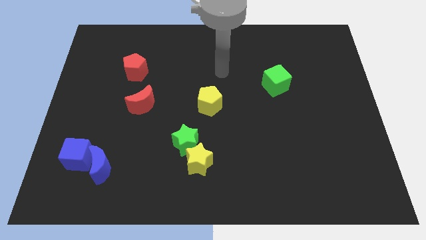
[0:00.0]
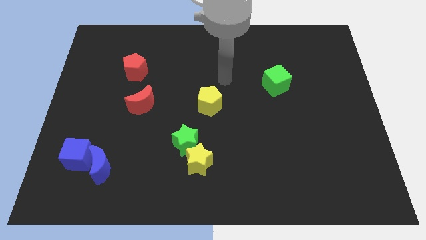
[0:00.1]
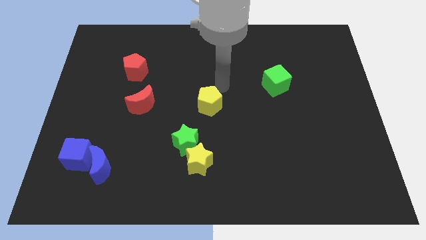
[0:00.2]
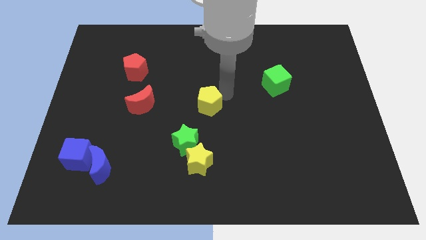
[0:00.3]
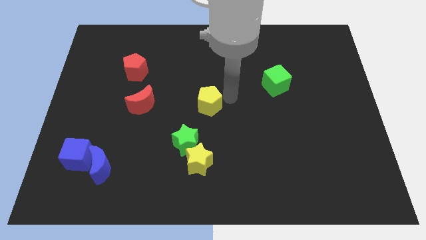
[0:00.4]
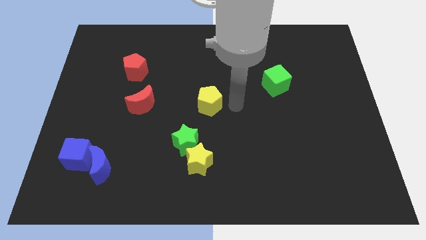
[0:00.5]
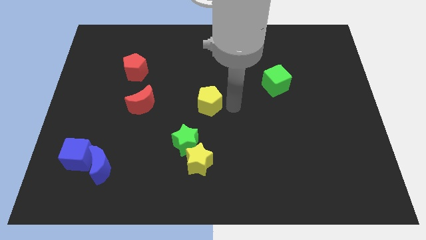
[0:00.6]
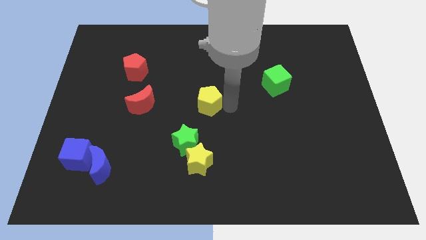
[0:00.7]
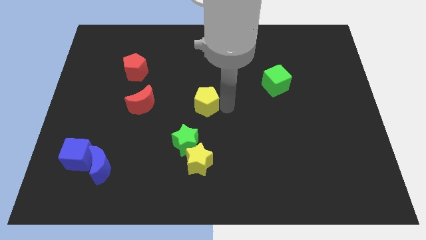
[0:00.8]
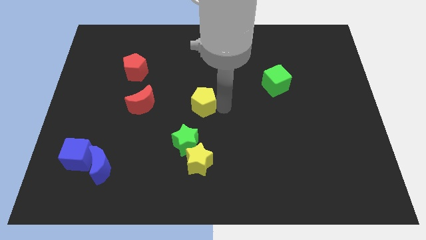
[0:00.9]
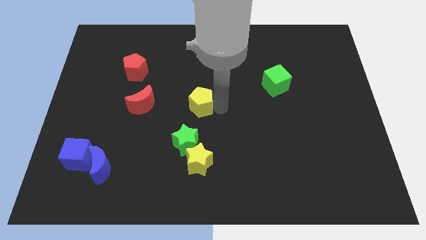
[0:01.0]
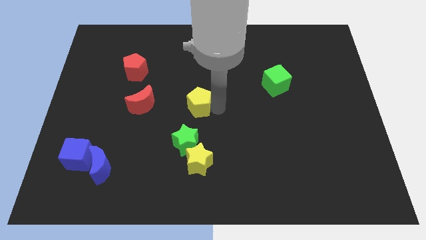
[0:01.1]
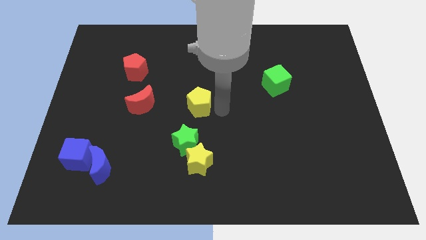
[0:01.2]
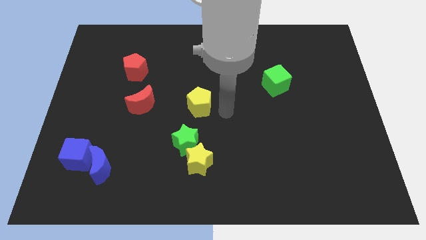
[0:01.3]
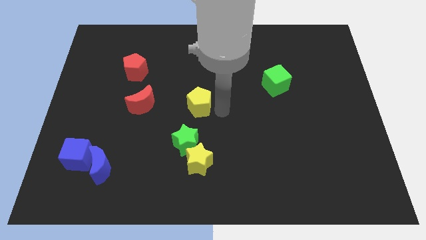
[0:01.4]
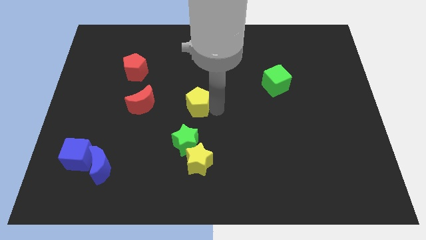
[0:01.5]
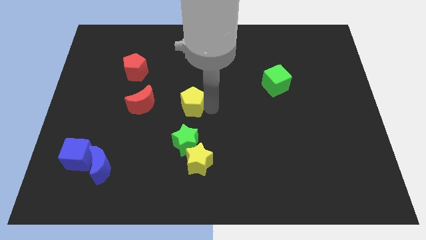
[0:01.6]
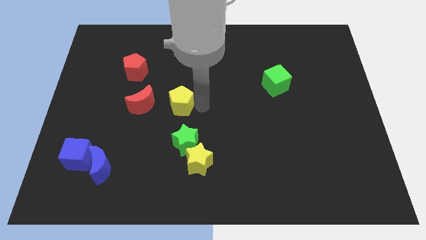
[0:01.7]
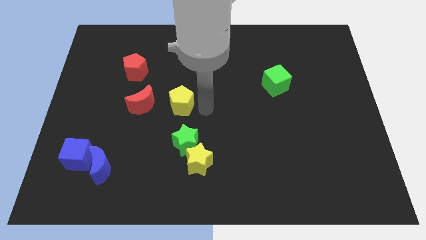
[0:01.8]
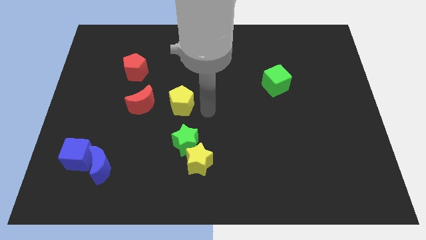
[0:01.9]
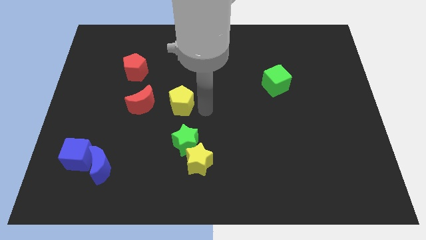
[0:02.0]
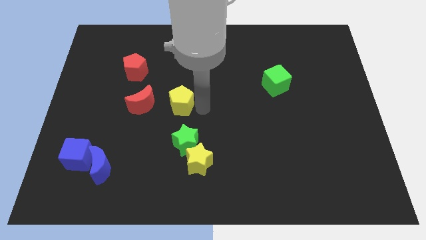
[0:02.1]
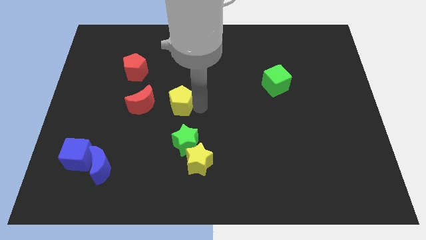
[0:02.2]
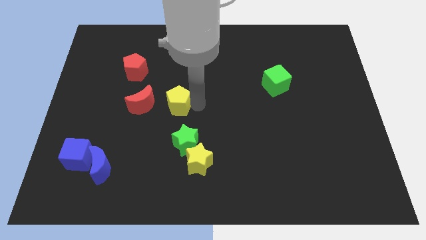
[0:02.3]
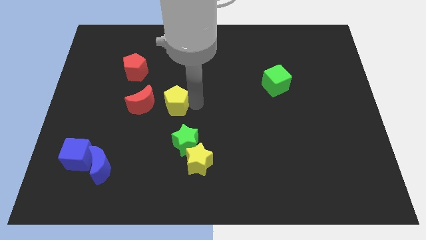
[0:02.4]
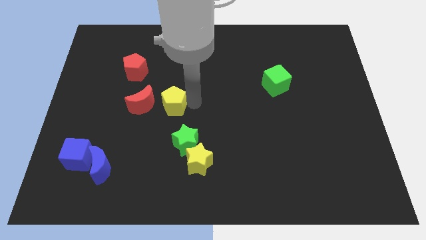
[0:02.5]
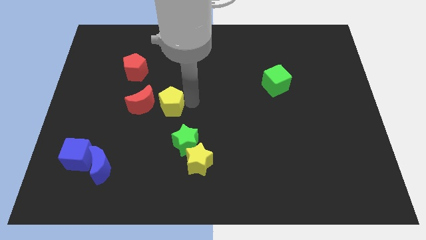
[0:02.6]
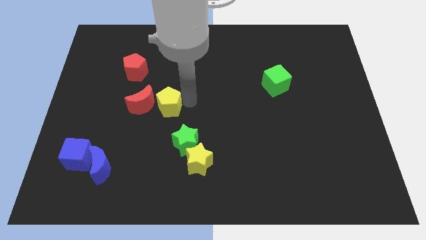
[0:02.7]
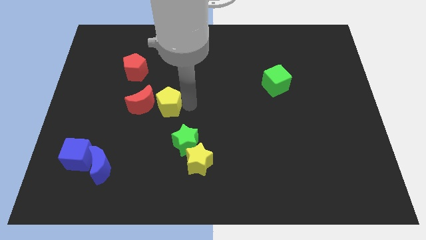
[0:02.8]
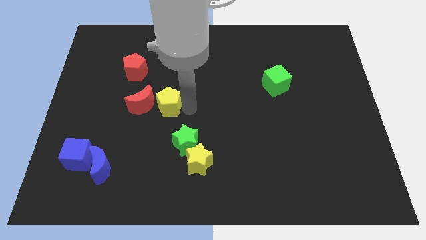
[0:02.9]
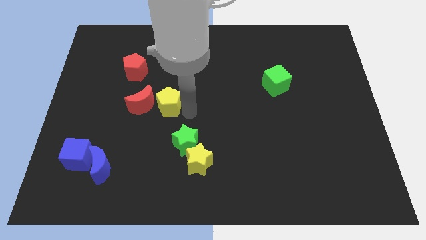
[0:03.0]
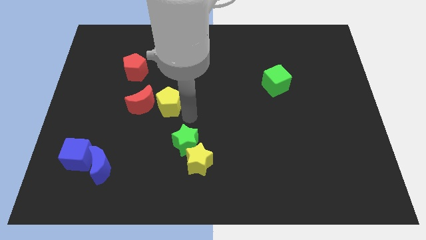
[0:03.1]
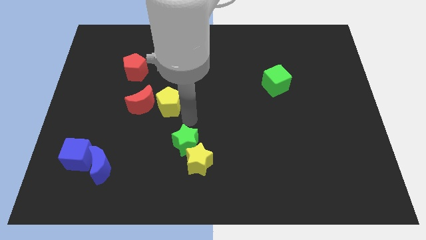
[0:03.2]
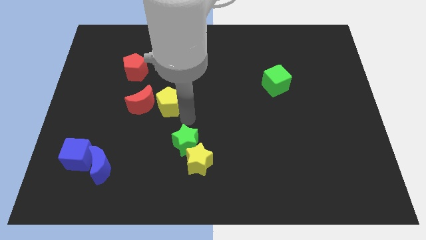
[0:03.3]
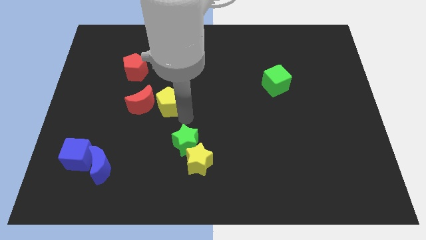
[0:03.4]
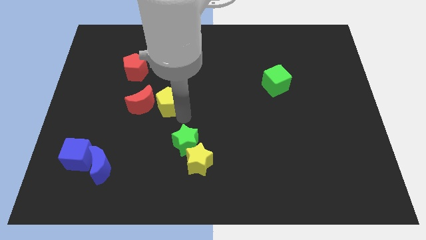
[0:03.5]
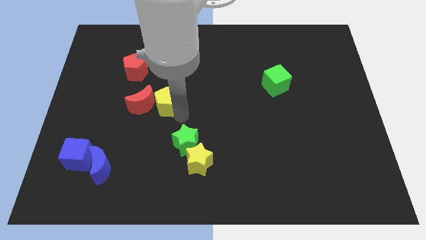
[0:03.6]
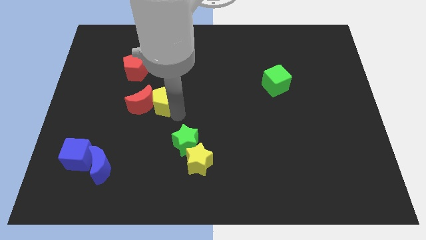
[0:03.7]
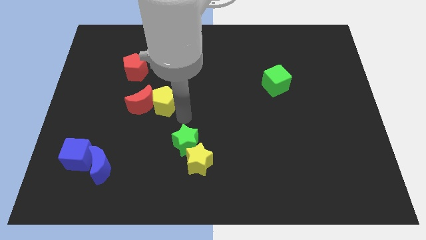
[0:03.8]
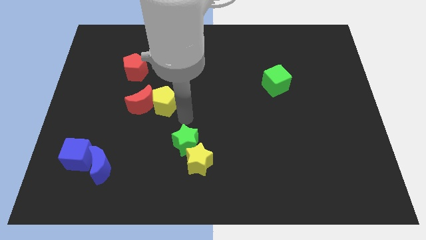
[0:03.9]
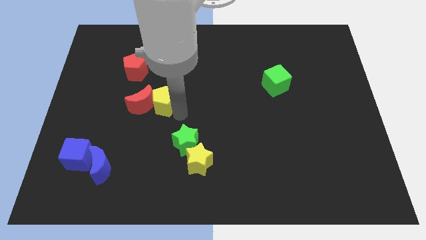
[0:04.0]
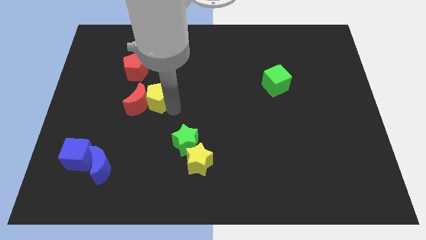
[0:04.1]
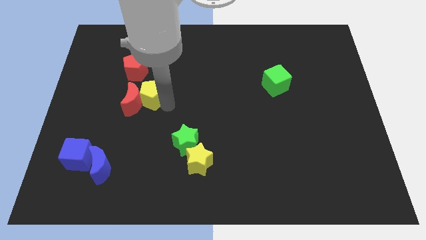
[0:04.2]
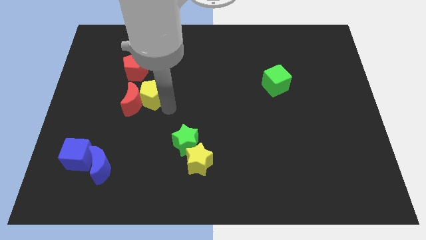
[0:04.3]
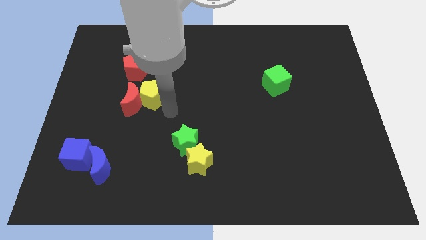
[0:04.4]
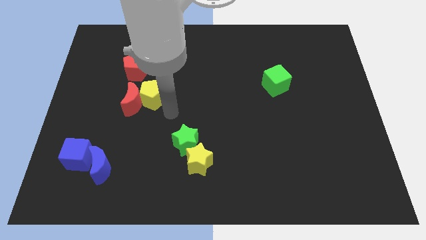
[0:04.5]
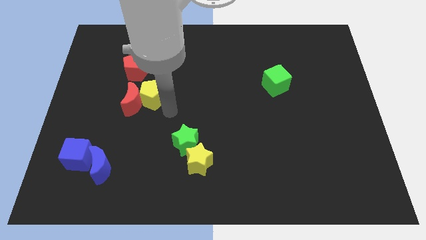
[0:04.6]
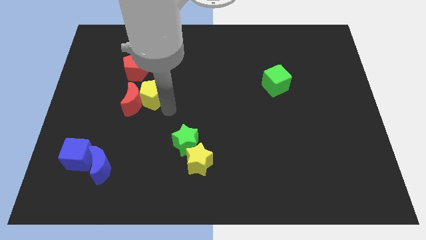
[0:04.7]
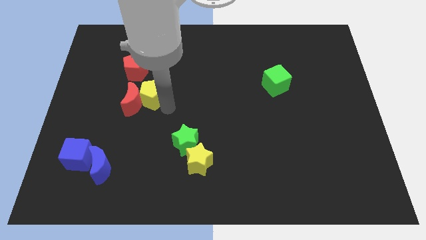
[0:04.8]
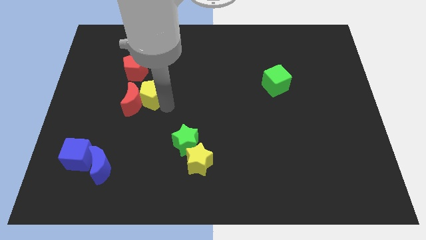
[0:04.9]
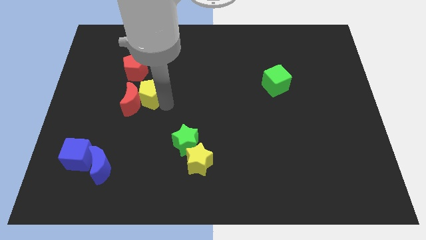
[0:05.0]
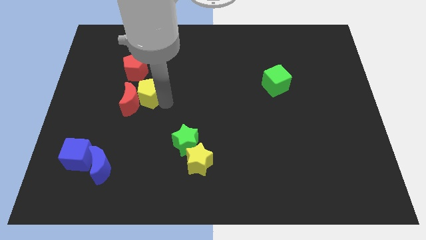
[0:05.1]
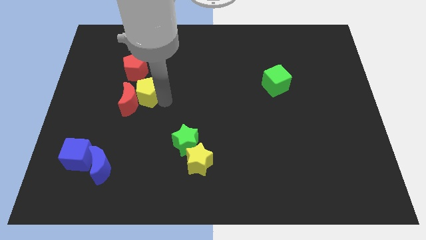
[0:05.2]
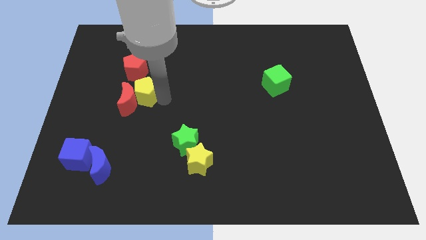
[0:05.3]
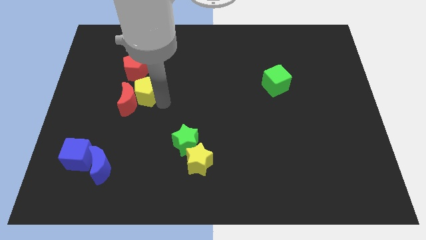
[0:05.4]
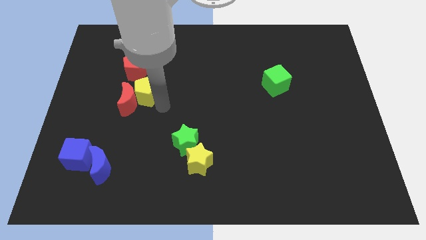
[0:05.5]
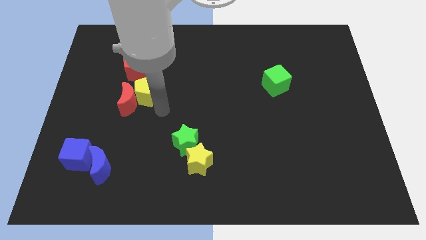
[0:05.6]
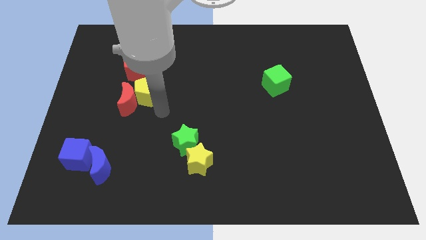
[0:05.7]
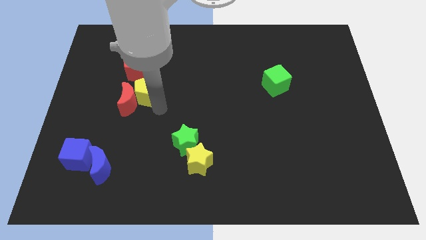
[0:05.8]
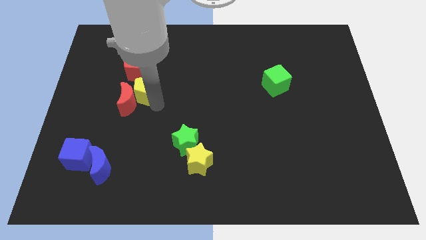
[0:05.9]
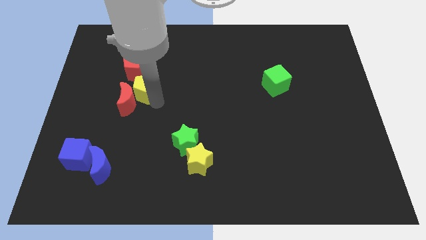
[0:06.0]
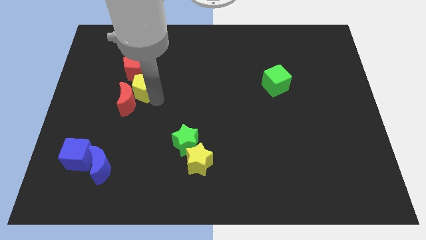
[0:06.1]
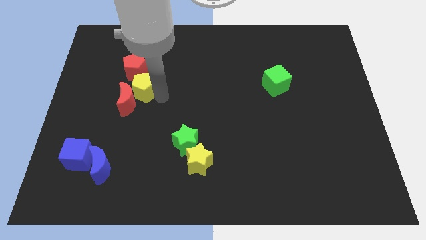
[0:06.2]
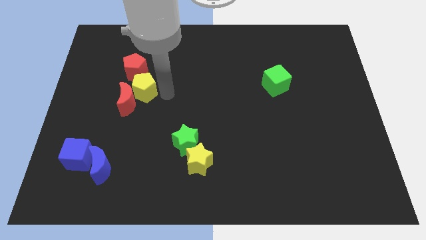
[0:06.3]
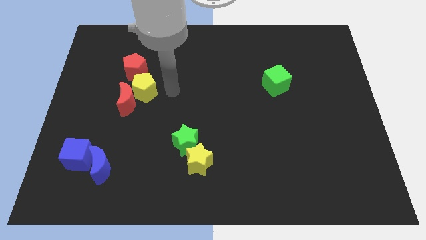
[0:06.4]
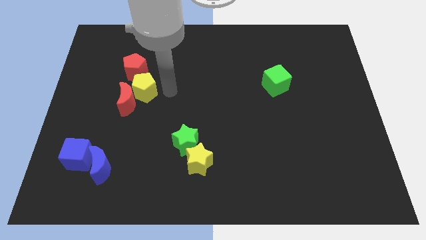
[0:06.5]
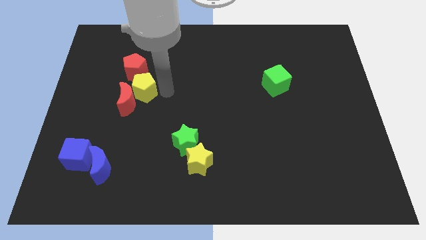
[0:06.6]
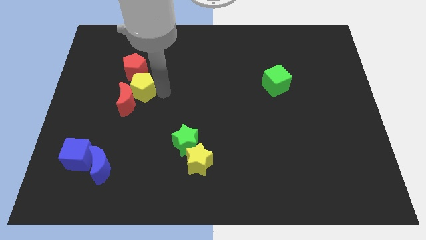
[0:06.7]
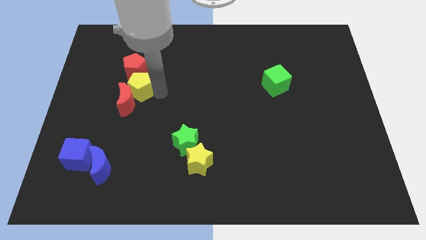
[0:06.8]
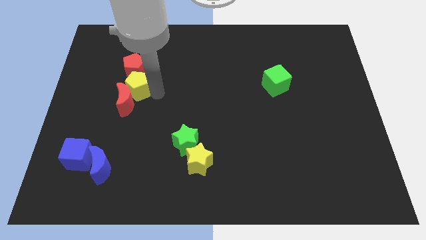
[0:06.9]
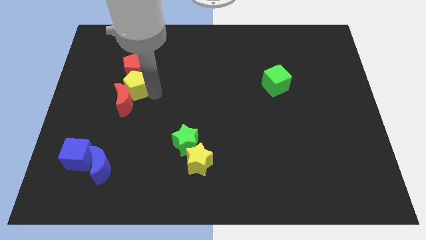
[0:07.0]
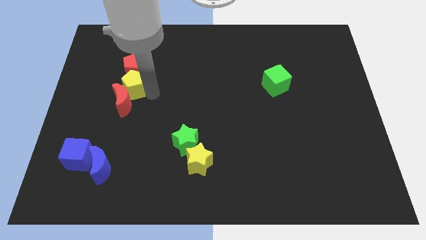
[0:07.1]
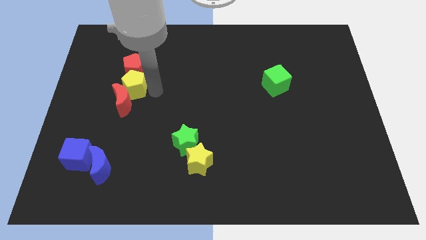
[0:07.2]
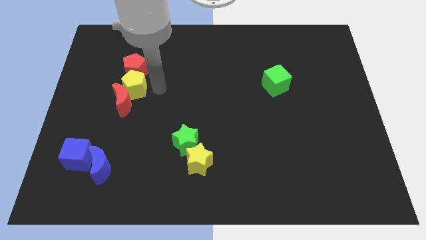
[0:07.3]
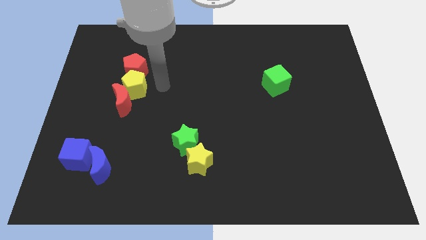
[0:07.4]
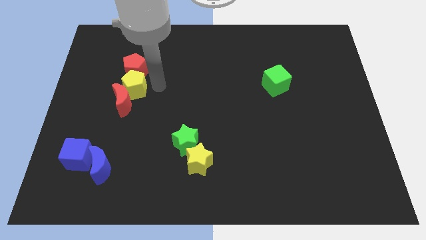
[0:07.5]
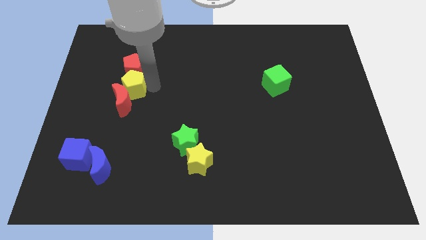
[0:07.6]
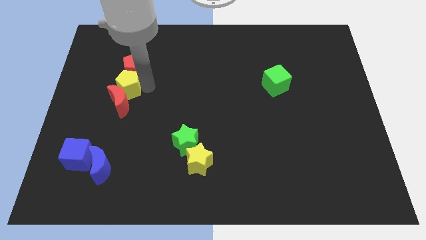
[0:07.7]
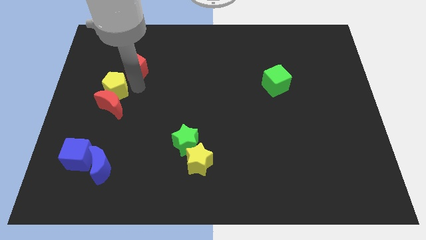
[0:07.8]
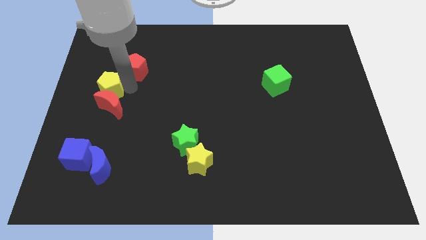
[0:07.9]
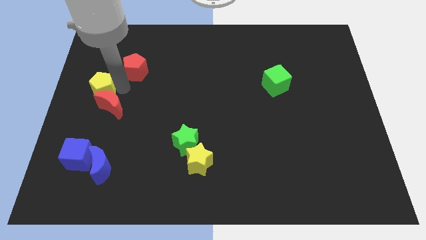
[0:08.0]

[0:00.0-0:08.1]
slide the yellow pentagon to the center left
